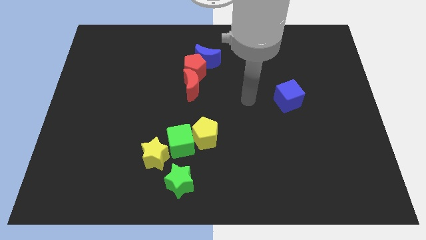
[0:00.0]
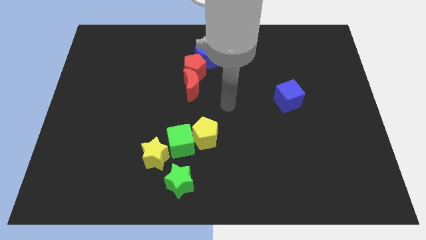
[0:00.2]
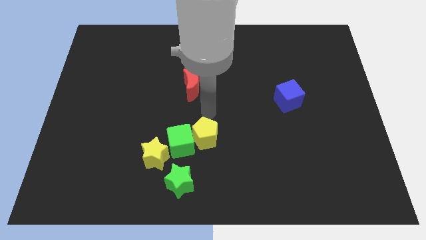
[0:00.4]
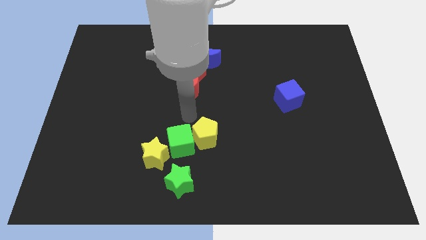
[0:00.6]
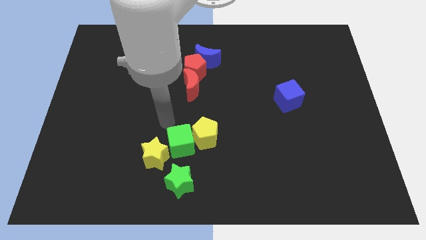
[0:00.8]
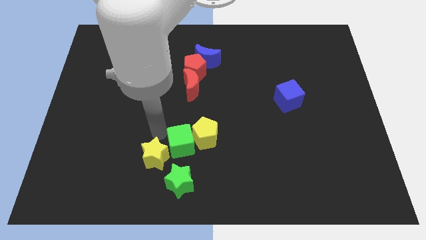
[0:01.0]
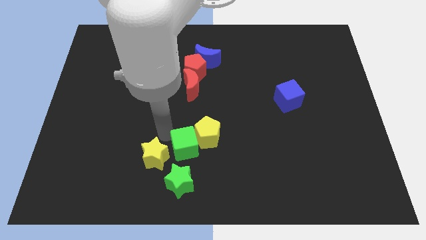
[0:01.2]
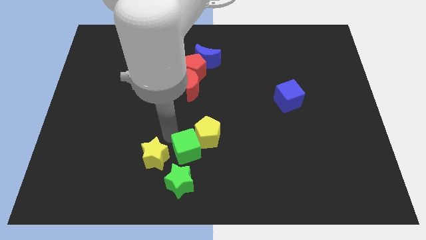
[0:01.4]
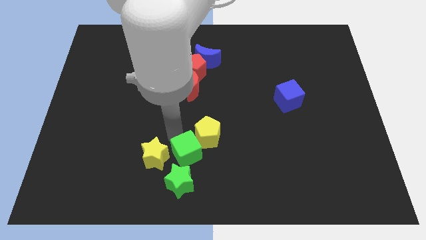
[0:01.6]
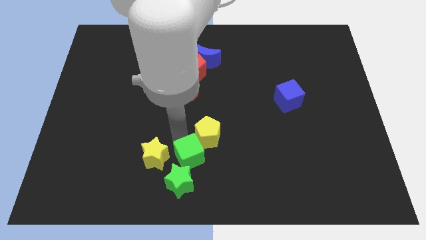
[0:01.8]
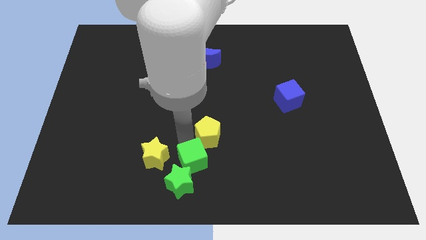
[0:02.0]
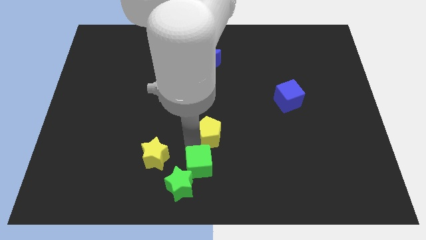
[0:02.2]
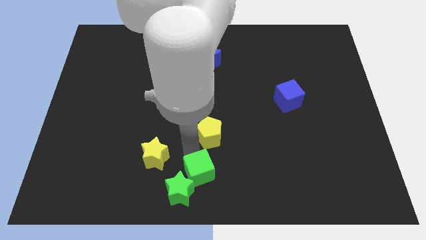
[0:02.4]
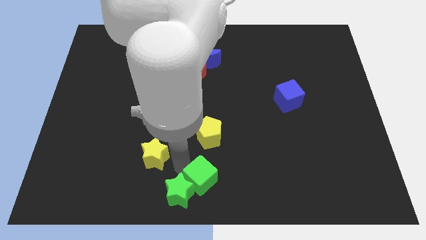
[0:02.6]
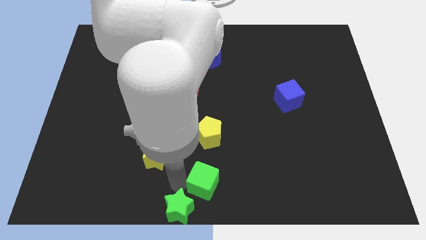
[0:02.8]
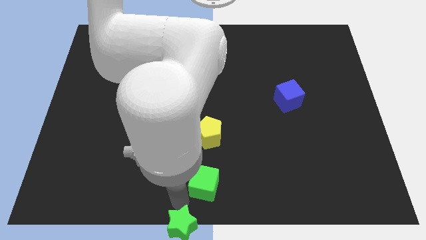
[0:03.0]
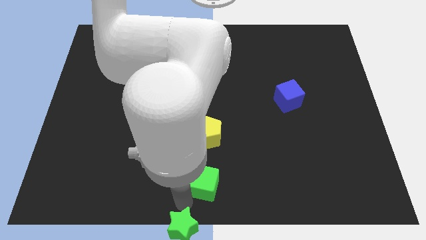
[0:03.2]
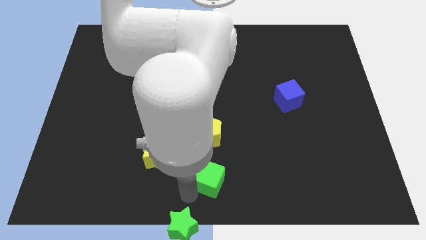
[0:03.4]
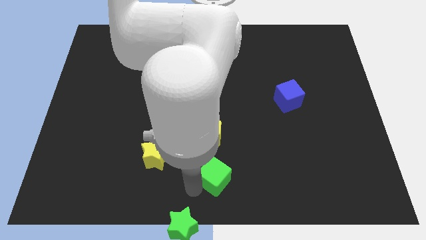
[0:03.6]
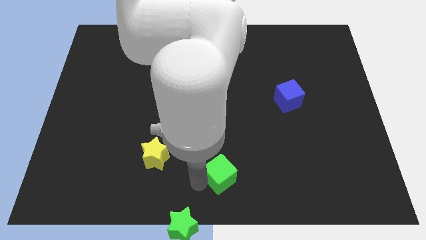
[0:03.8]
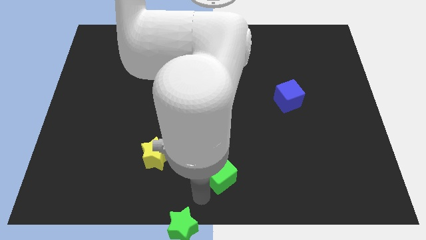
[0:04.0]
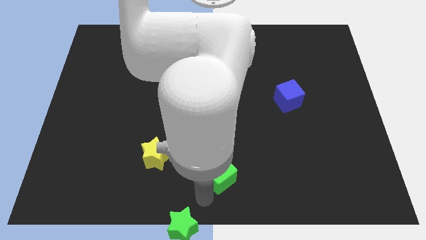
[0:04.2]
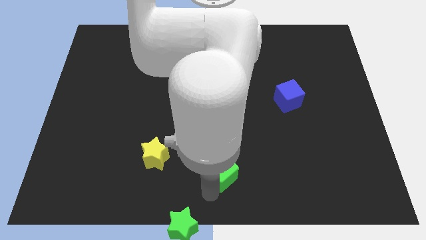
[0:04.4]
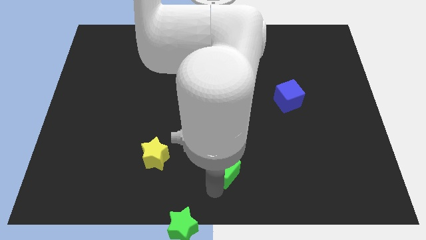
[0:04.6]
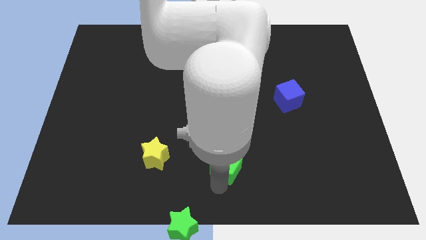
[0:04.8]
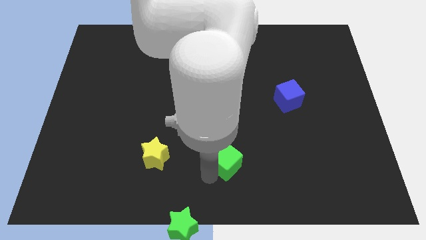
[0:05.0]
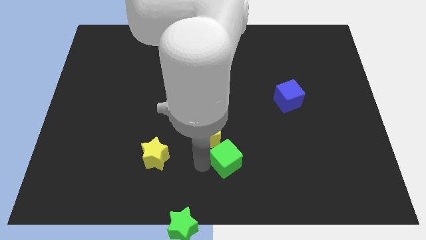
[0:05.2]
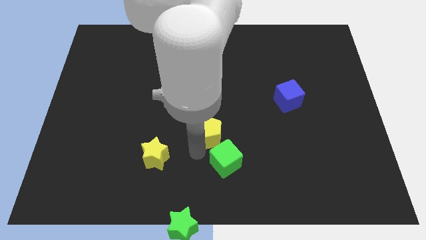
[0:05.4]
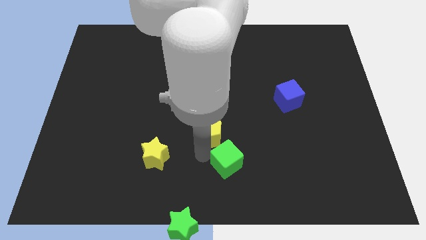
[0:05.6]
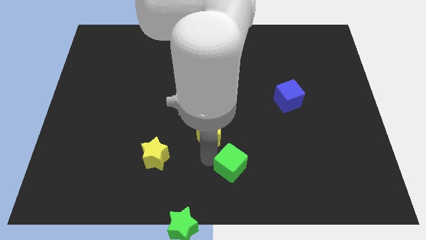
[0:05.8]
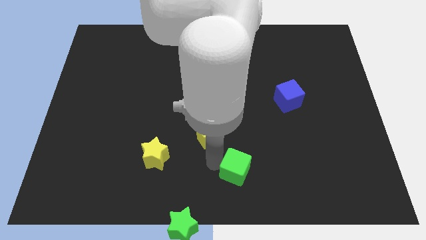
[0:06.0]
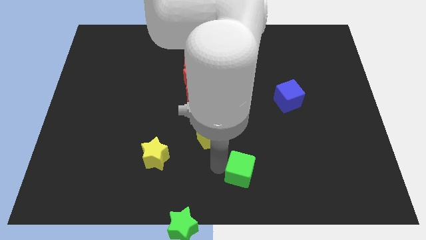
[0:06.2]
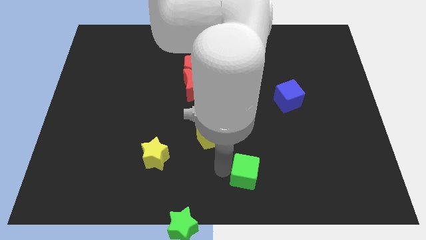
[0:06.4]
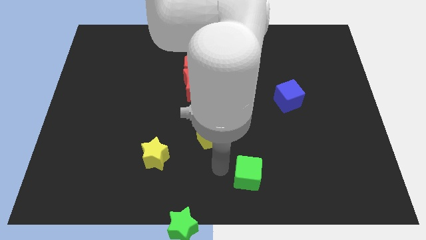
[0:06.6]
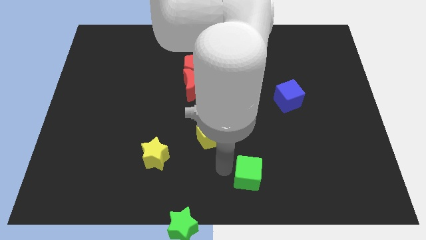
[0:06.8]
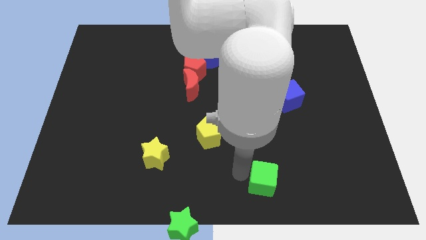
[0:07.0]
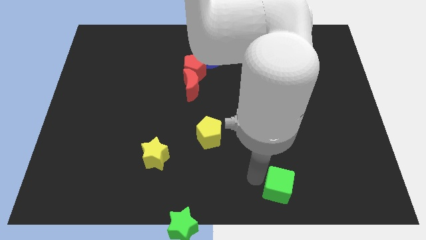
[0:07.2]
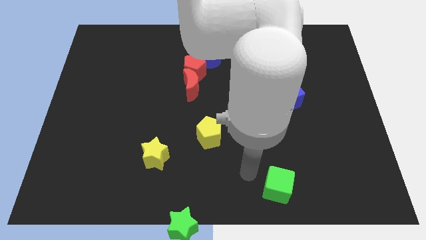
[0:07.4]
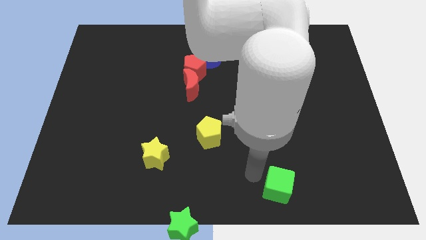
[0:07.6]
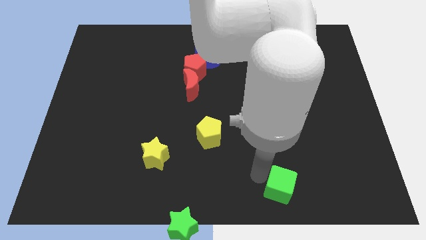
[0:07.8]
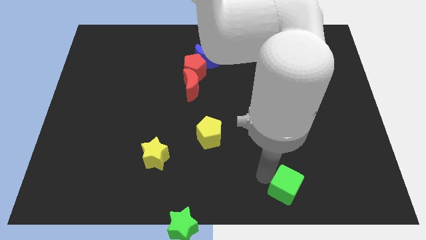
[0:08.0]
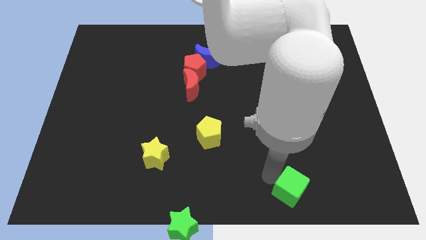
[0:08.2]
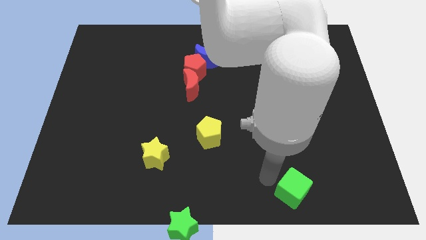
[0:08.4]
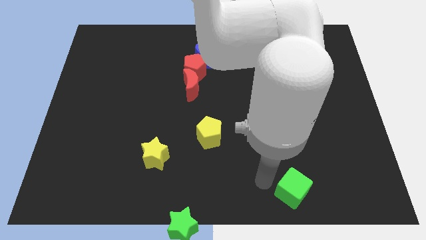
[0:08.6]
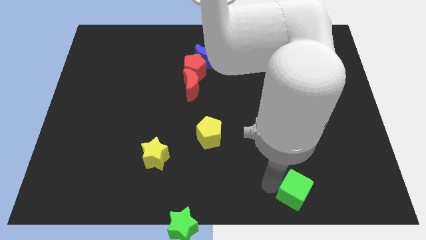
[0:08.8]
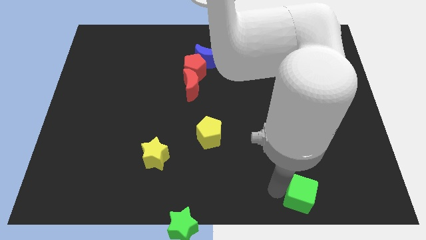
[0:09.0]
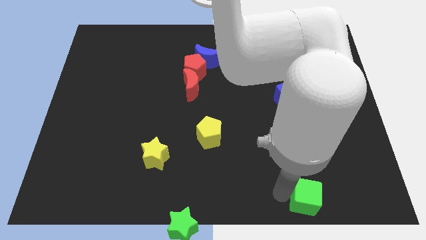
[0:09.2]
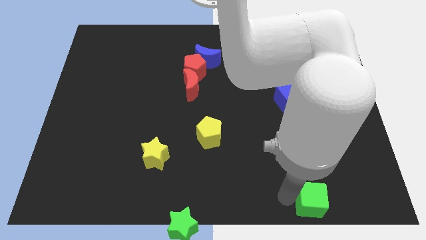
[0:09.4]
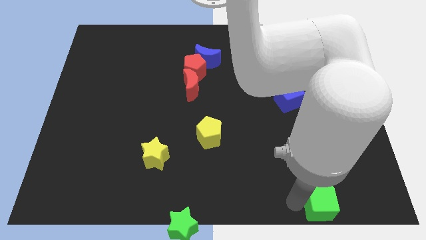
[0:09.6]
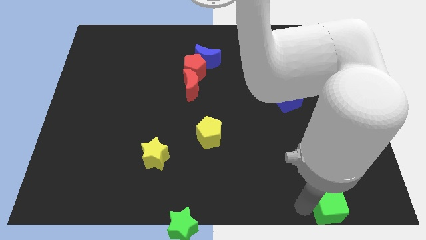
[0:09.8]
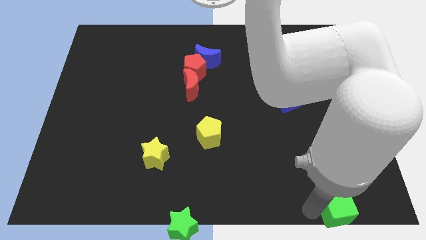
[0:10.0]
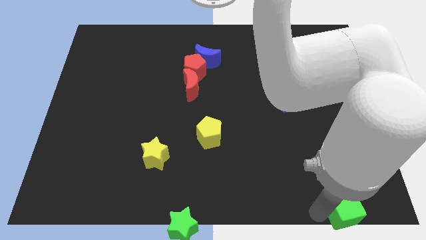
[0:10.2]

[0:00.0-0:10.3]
push the green cube to the bottom right of the board

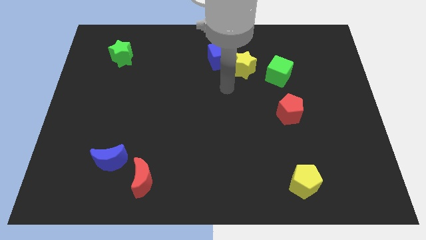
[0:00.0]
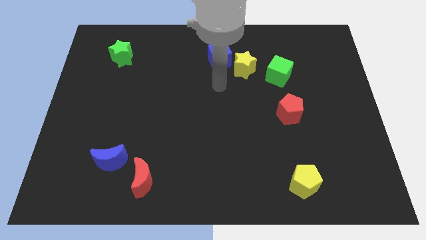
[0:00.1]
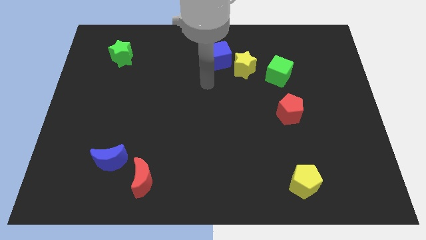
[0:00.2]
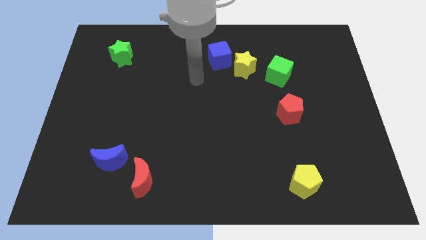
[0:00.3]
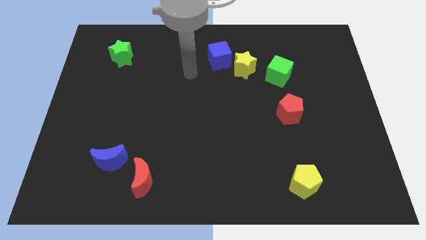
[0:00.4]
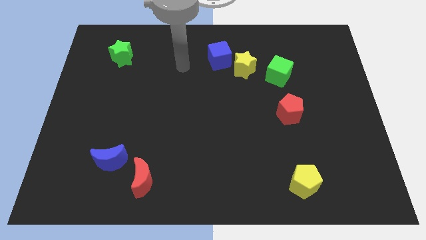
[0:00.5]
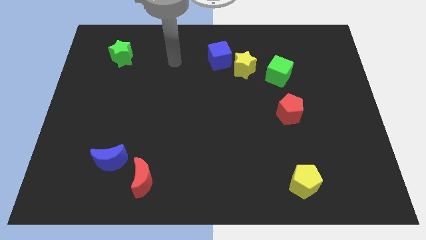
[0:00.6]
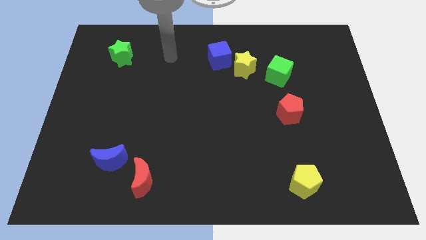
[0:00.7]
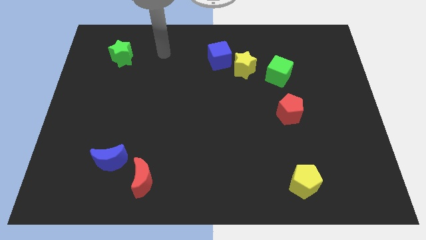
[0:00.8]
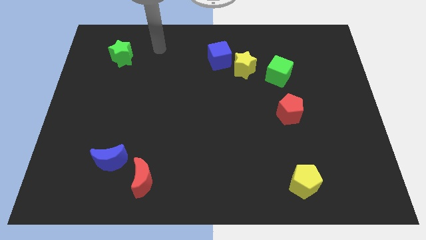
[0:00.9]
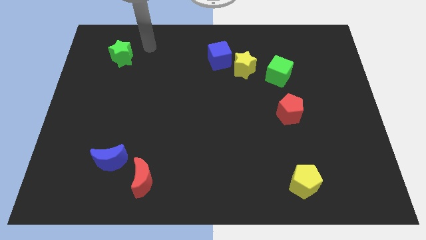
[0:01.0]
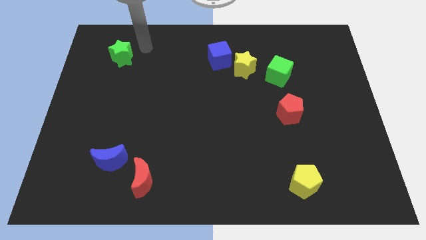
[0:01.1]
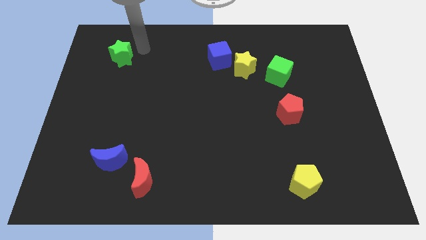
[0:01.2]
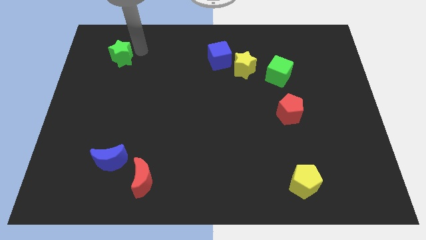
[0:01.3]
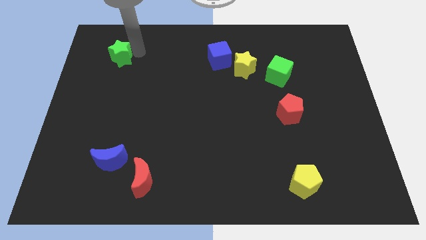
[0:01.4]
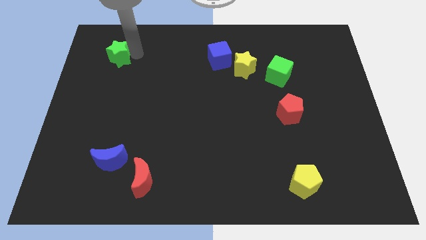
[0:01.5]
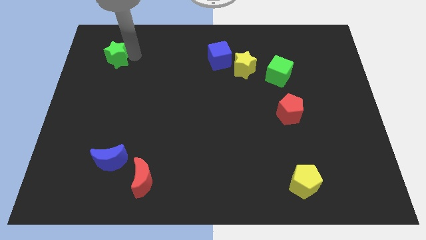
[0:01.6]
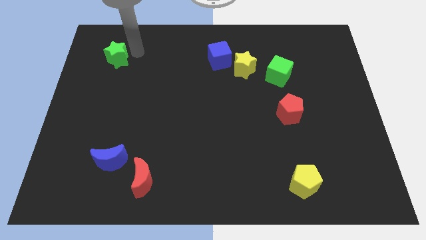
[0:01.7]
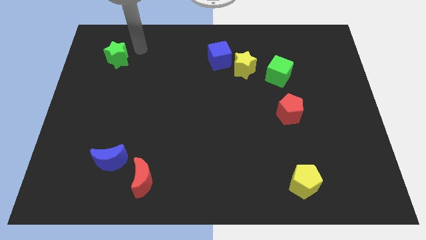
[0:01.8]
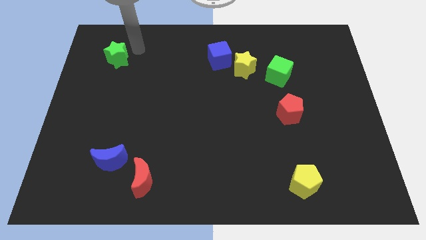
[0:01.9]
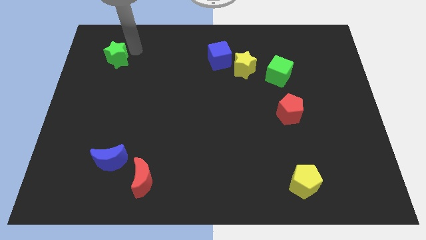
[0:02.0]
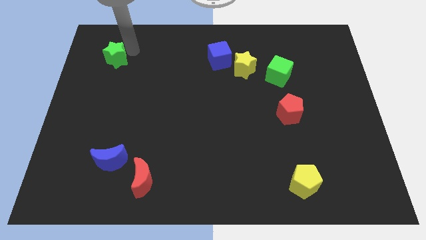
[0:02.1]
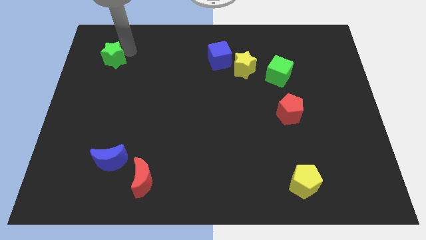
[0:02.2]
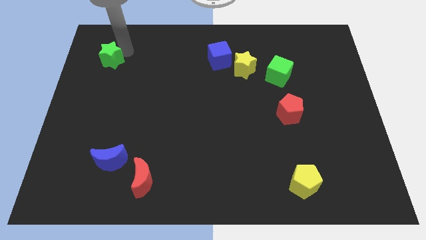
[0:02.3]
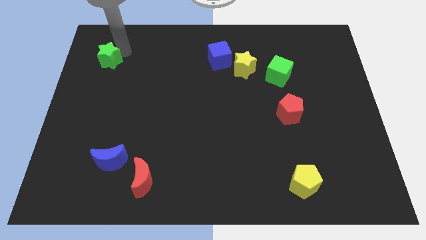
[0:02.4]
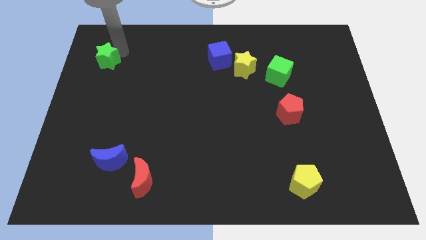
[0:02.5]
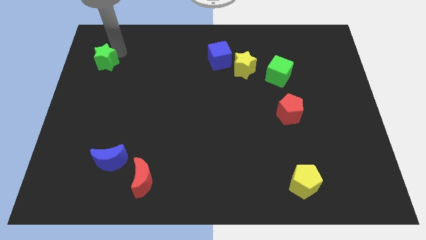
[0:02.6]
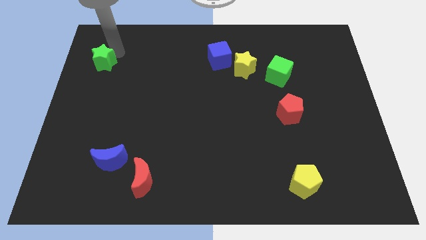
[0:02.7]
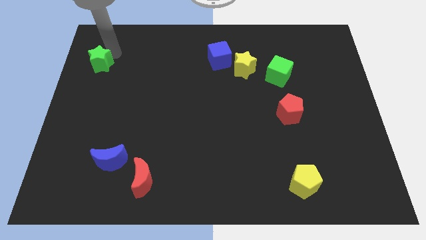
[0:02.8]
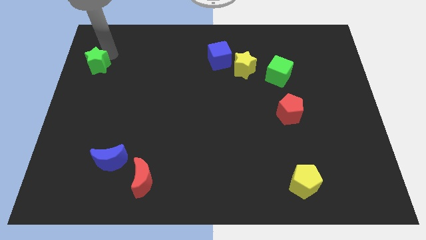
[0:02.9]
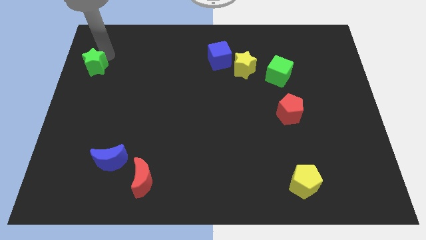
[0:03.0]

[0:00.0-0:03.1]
slide the green star to the left side of the board
